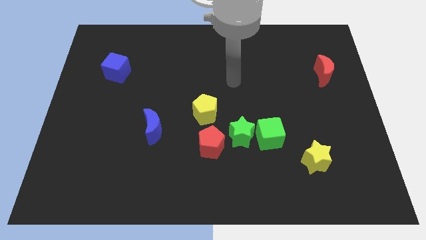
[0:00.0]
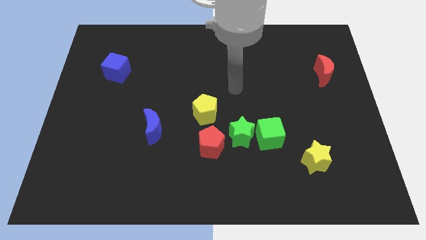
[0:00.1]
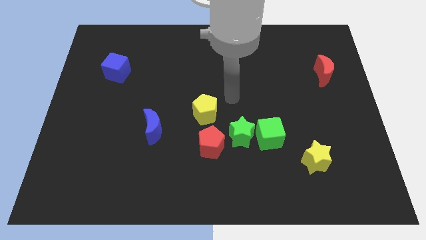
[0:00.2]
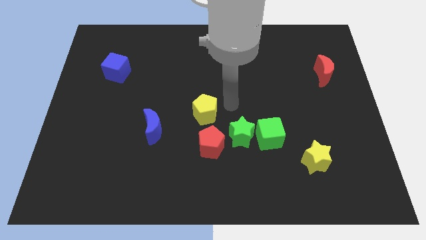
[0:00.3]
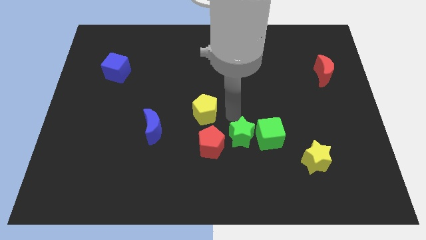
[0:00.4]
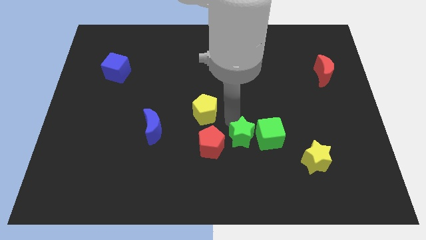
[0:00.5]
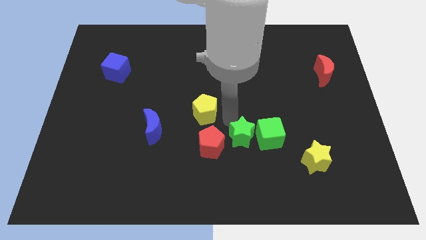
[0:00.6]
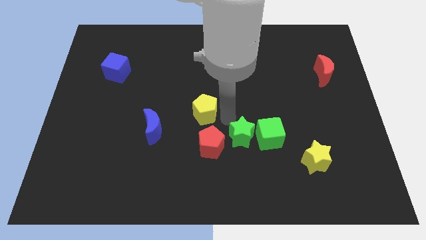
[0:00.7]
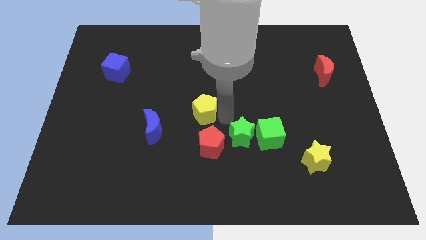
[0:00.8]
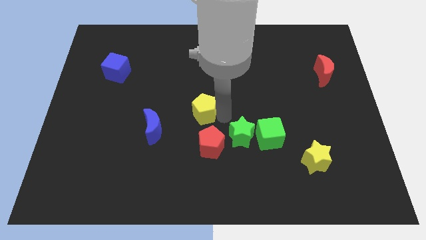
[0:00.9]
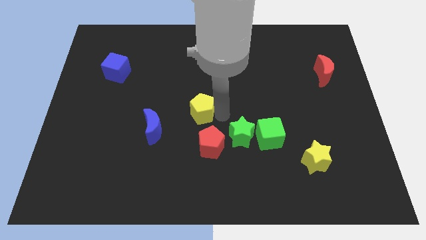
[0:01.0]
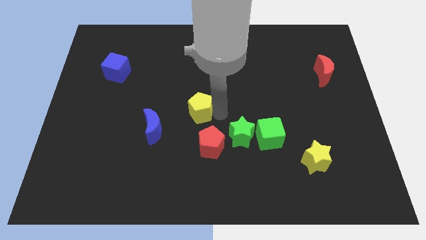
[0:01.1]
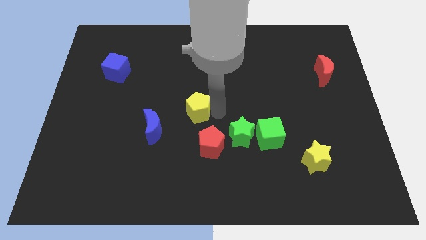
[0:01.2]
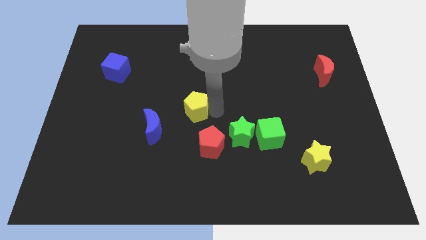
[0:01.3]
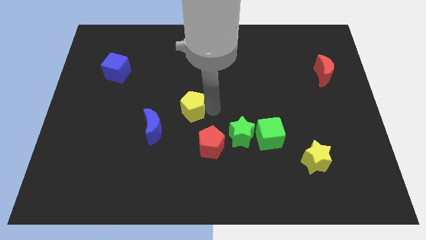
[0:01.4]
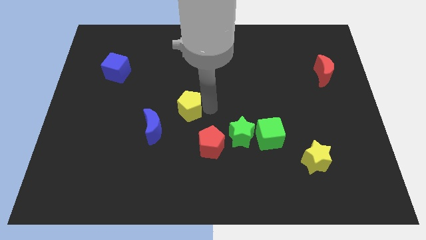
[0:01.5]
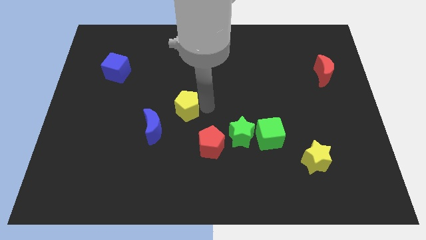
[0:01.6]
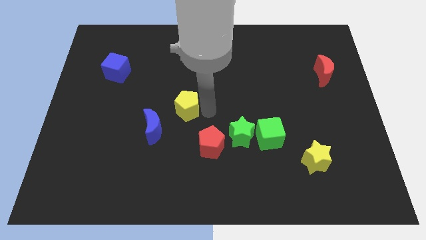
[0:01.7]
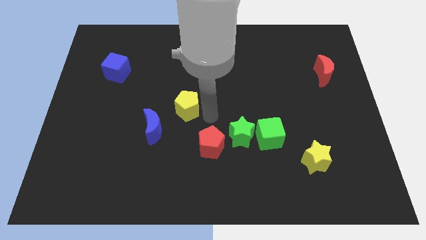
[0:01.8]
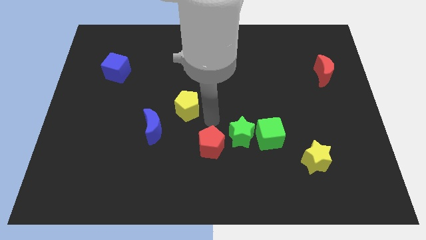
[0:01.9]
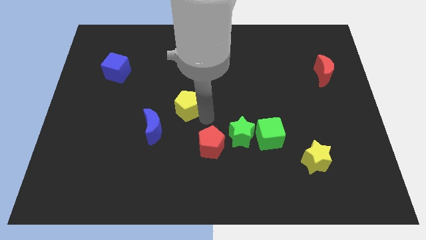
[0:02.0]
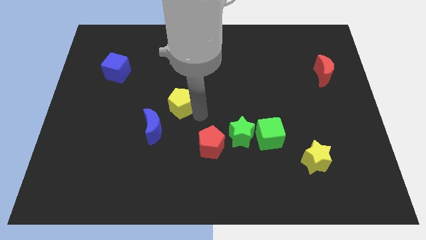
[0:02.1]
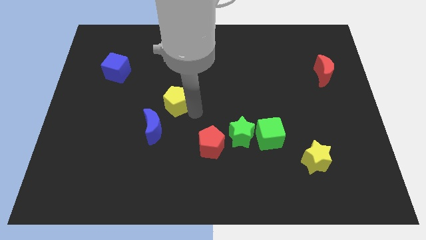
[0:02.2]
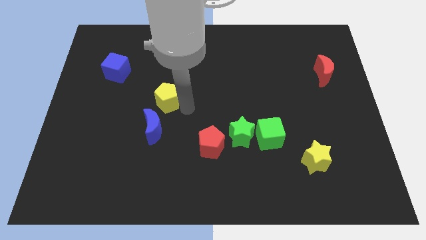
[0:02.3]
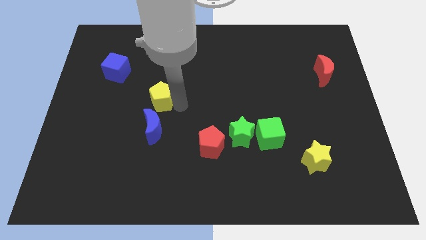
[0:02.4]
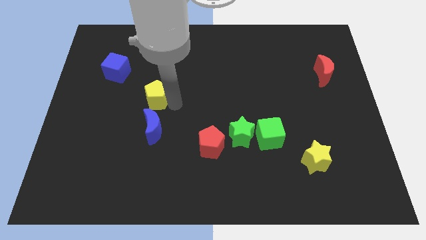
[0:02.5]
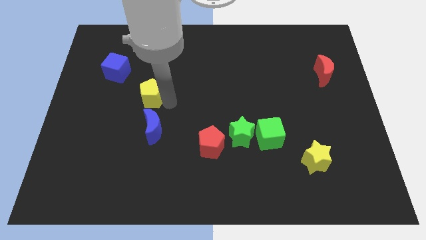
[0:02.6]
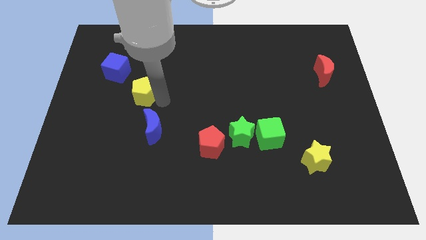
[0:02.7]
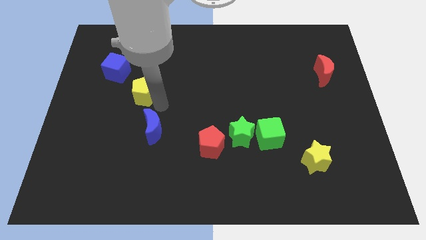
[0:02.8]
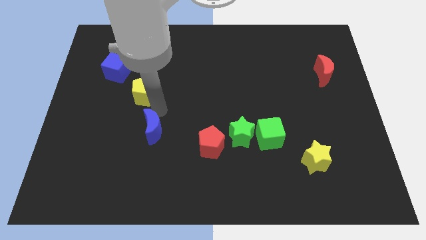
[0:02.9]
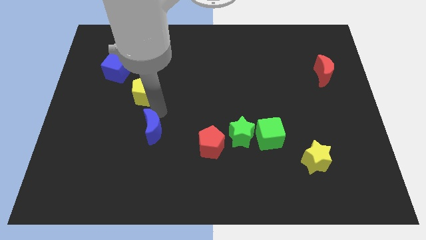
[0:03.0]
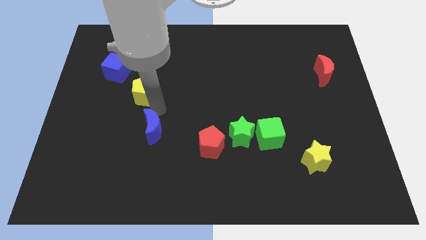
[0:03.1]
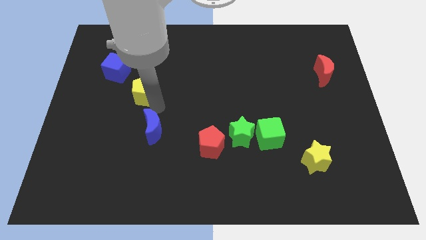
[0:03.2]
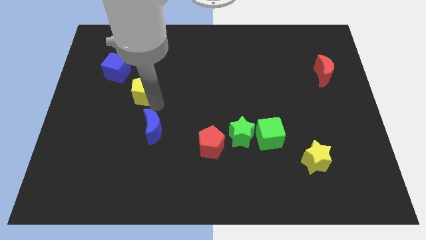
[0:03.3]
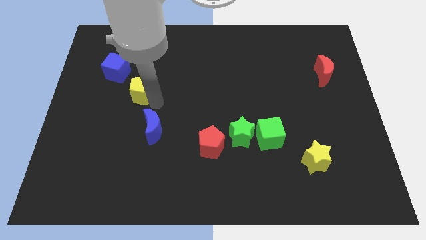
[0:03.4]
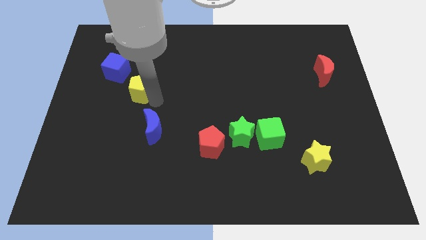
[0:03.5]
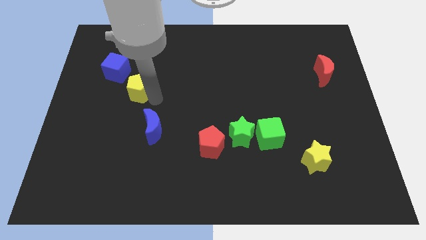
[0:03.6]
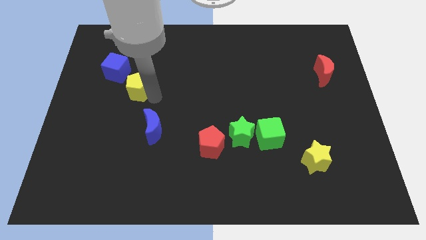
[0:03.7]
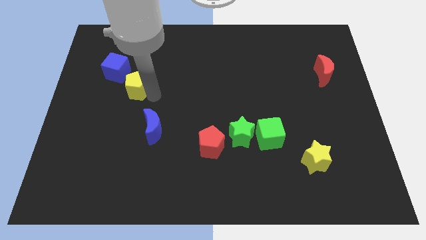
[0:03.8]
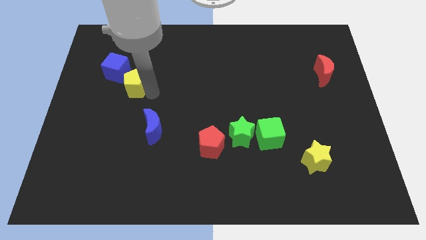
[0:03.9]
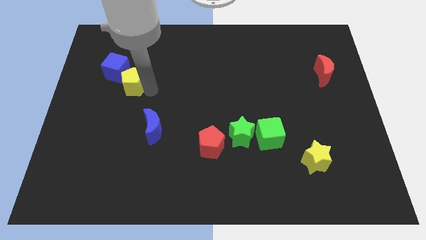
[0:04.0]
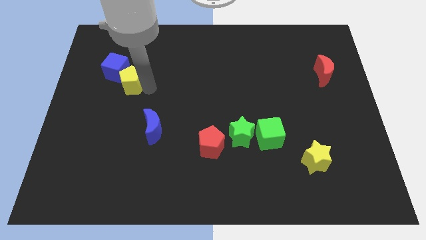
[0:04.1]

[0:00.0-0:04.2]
slide the yellow pentagon towards the blue cube

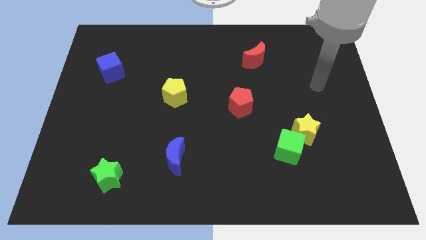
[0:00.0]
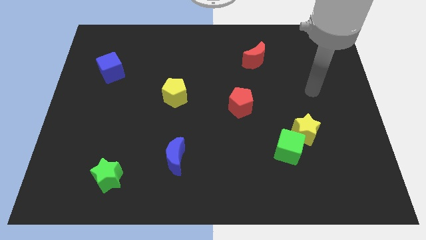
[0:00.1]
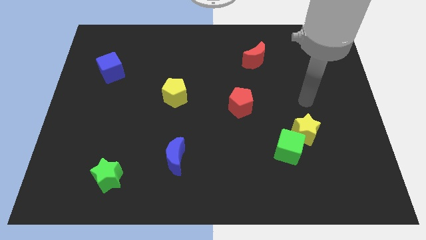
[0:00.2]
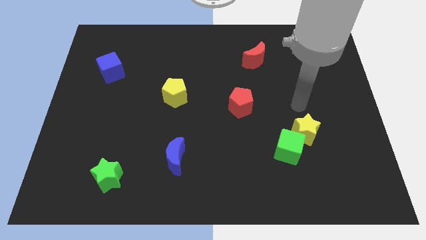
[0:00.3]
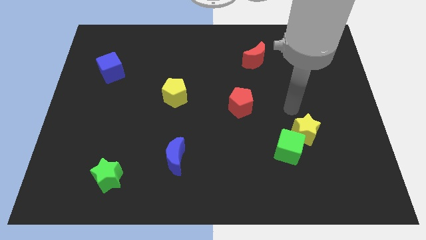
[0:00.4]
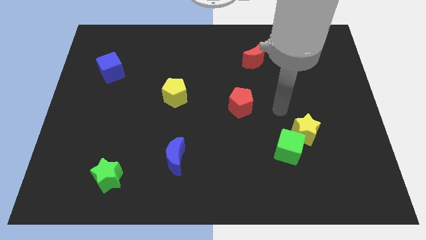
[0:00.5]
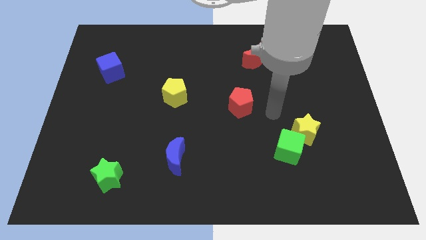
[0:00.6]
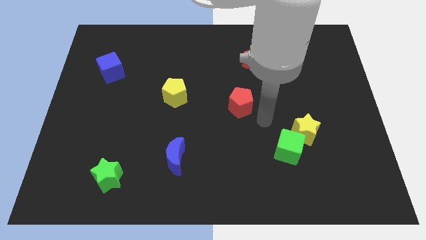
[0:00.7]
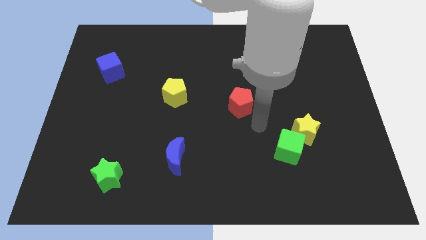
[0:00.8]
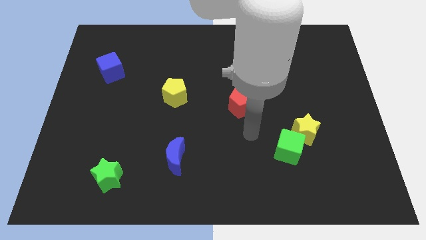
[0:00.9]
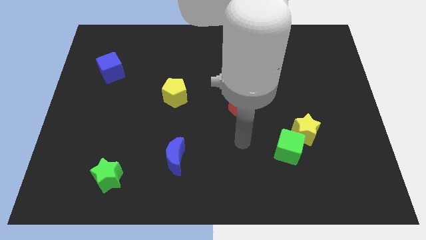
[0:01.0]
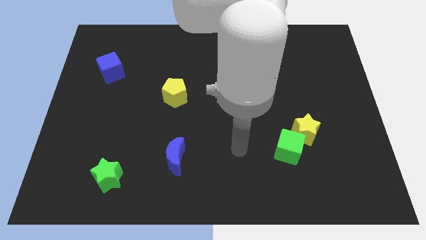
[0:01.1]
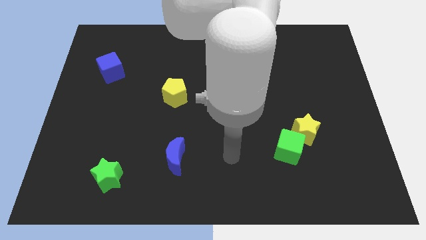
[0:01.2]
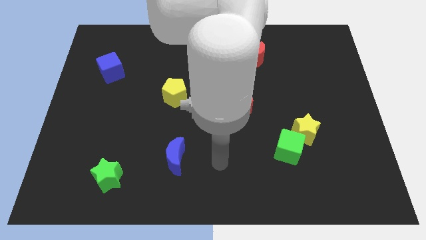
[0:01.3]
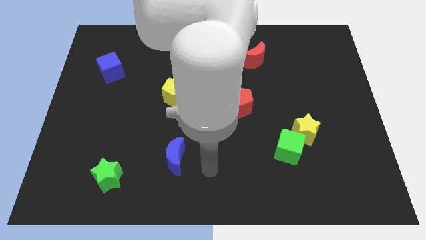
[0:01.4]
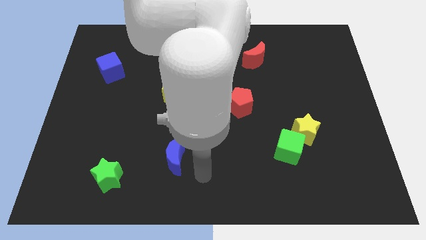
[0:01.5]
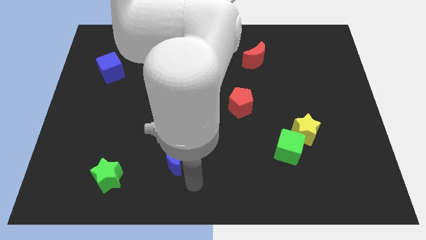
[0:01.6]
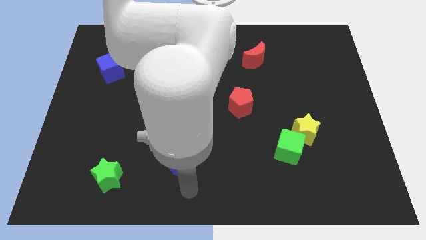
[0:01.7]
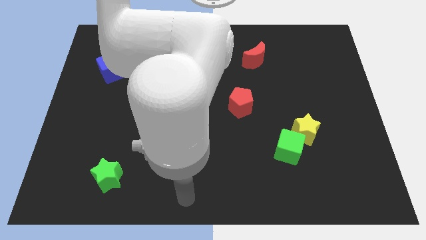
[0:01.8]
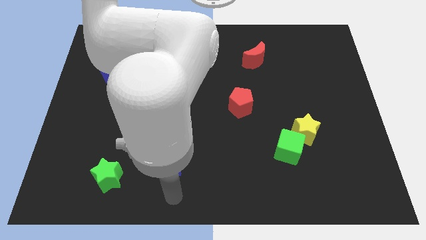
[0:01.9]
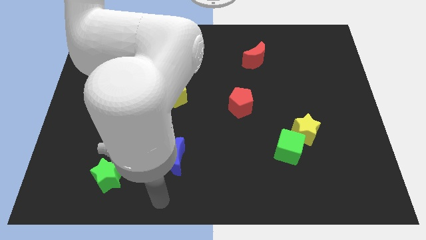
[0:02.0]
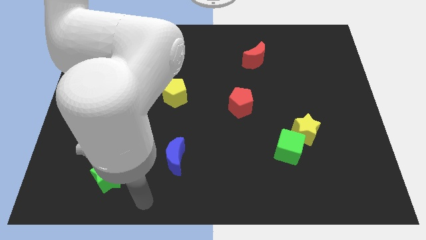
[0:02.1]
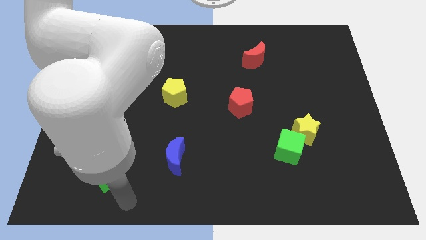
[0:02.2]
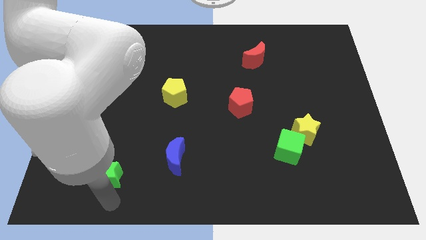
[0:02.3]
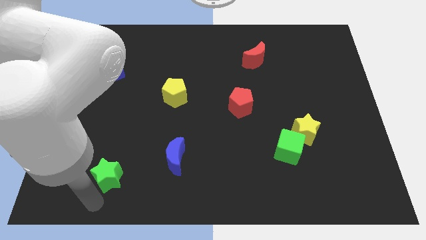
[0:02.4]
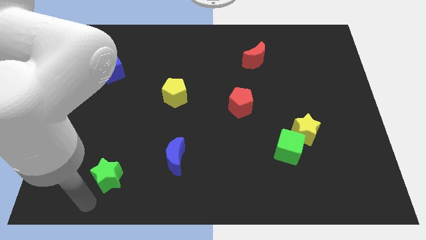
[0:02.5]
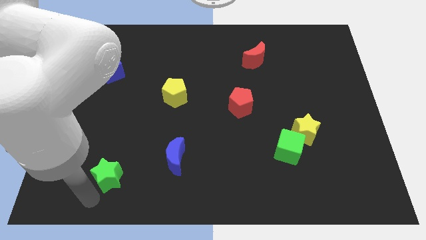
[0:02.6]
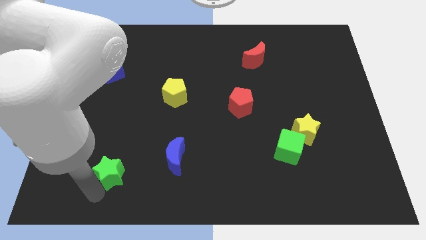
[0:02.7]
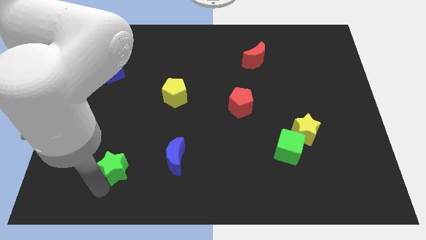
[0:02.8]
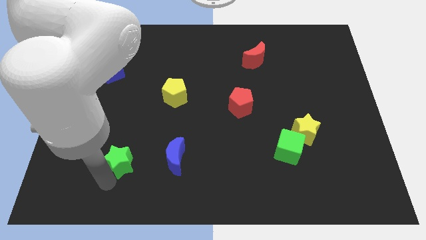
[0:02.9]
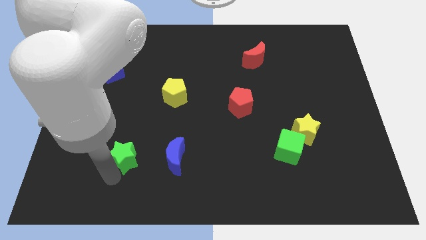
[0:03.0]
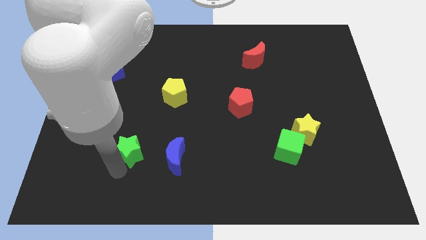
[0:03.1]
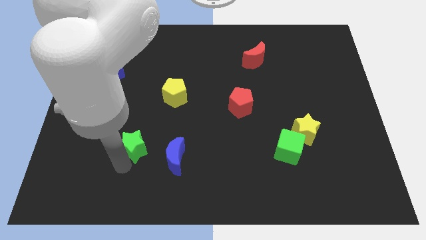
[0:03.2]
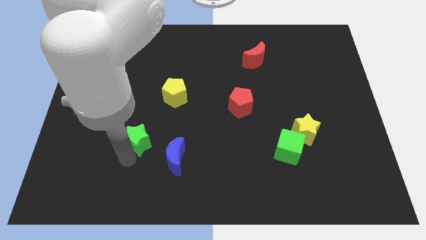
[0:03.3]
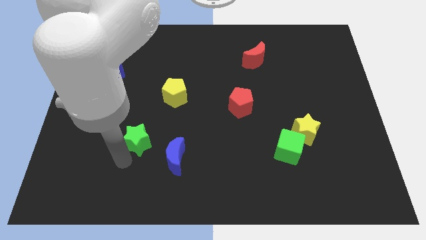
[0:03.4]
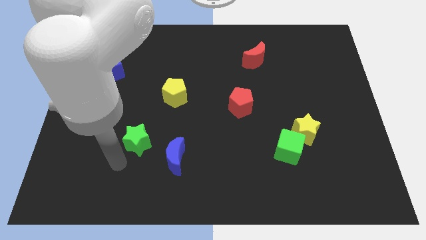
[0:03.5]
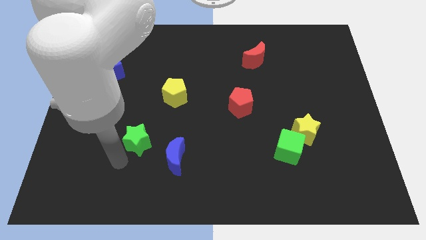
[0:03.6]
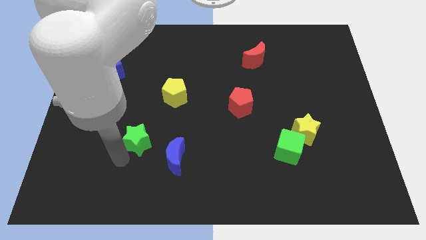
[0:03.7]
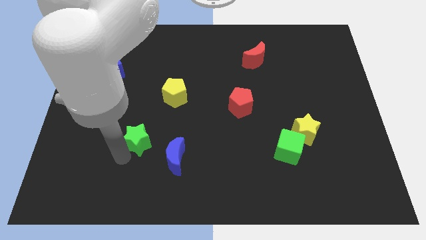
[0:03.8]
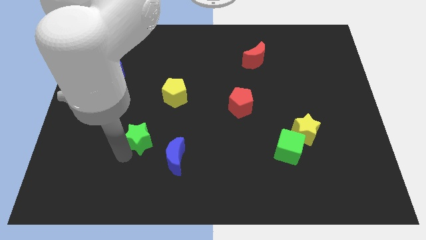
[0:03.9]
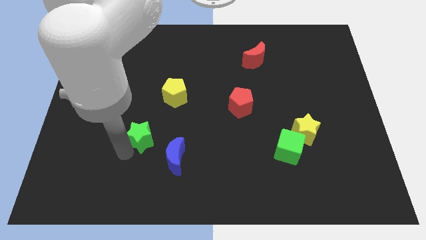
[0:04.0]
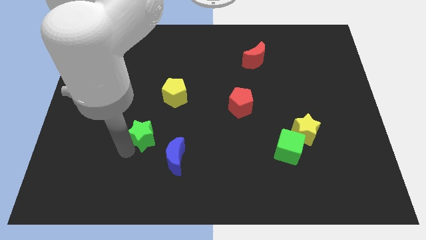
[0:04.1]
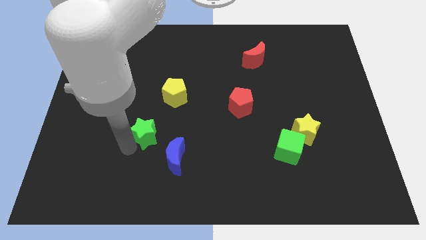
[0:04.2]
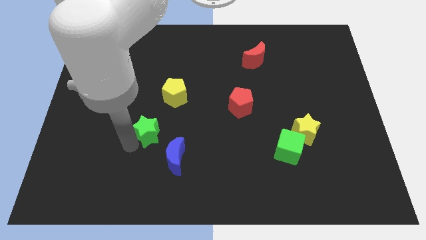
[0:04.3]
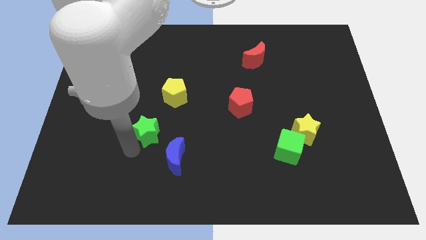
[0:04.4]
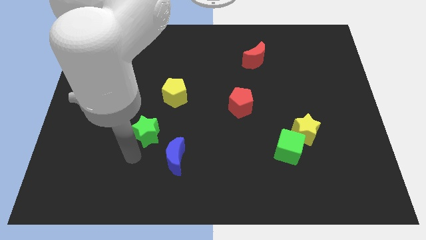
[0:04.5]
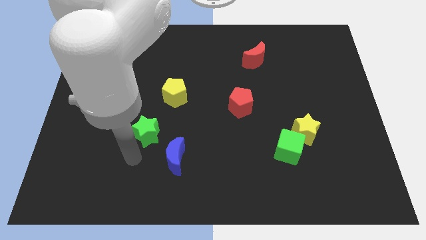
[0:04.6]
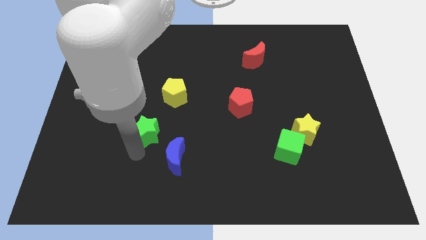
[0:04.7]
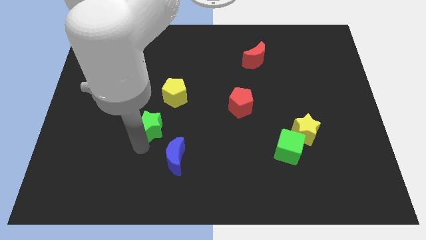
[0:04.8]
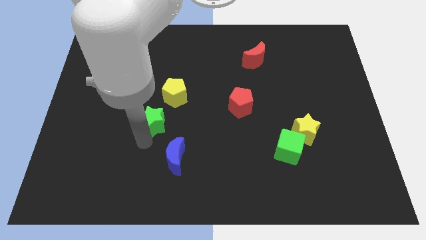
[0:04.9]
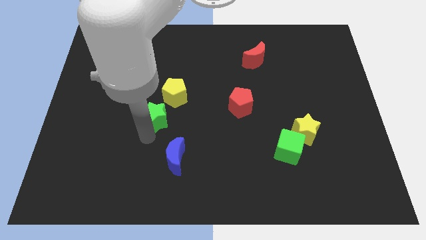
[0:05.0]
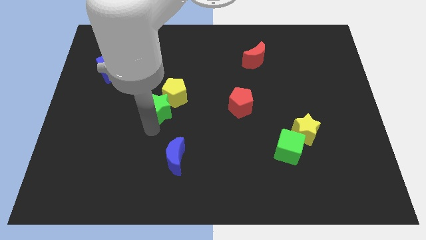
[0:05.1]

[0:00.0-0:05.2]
slide the green star next to the yellow pentagon
